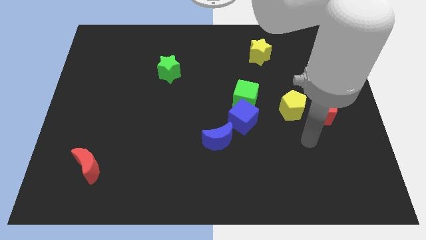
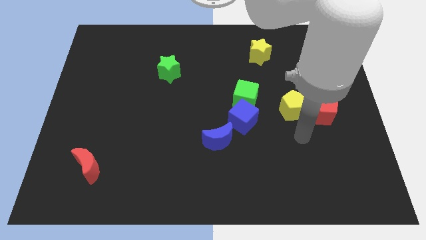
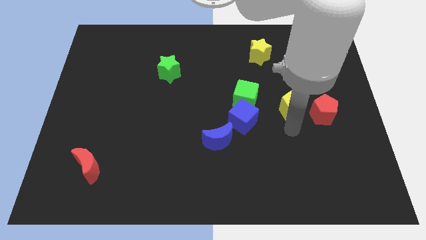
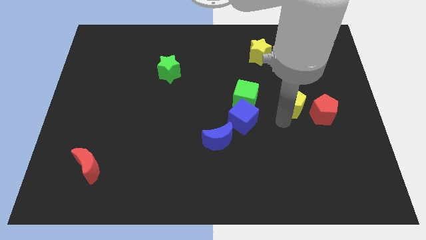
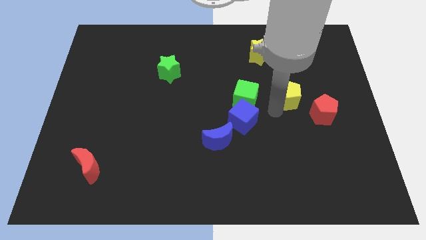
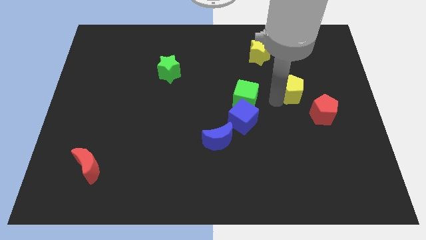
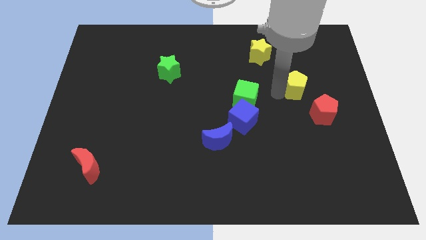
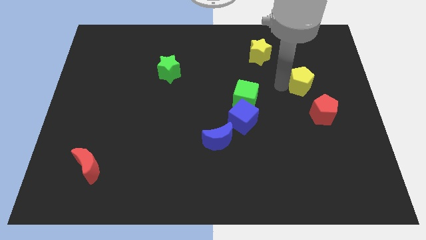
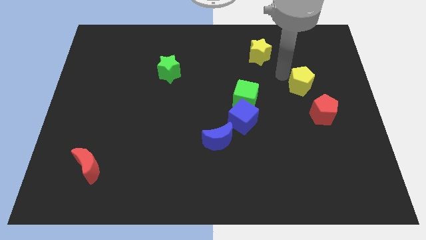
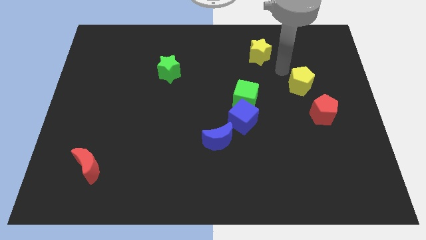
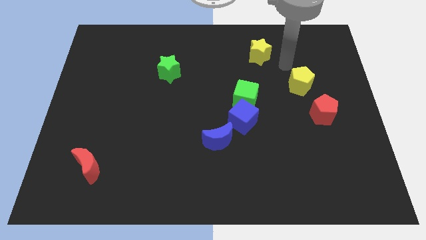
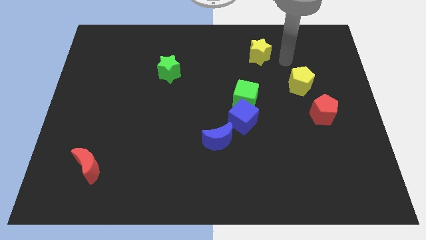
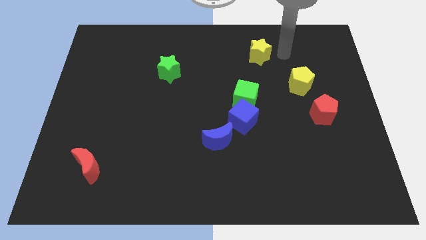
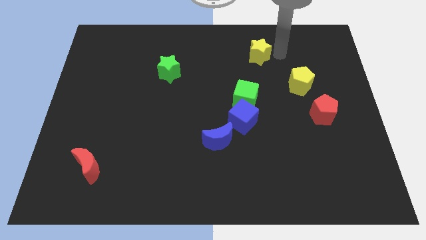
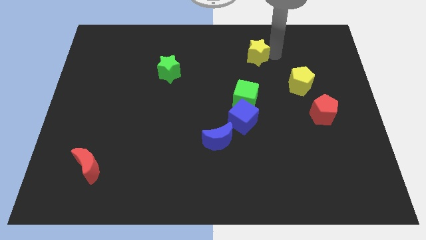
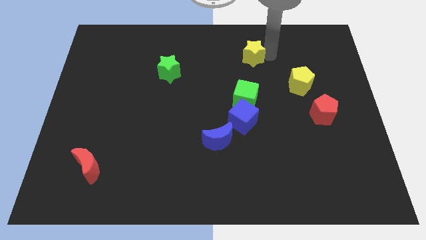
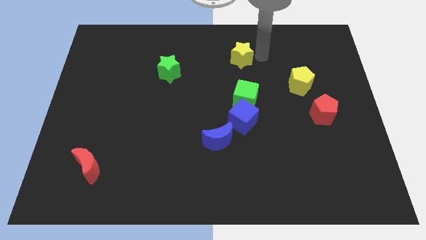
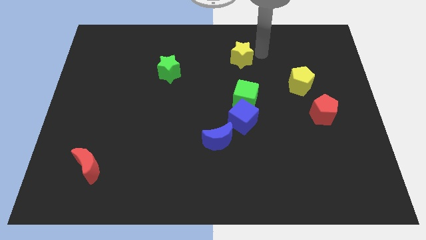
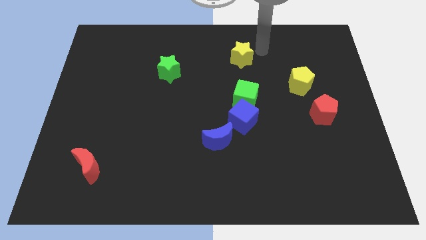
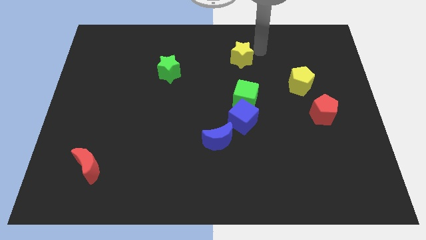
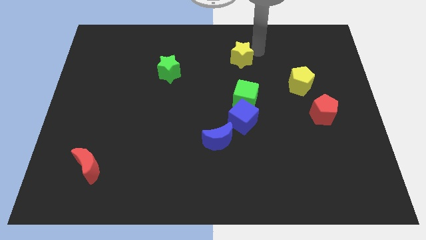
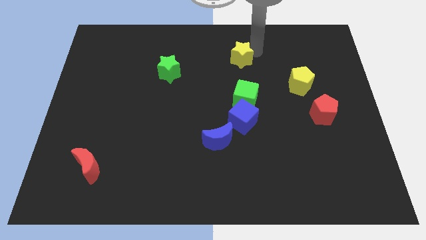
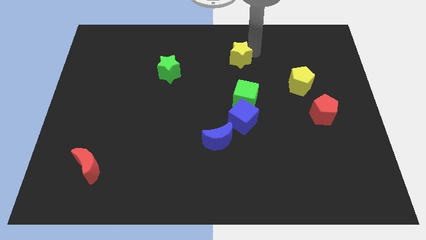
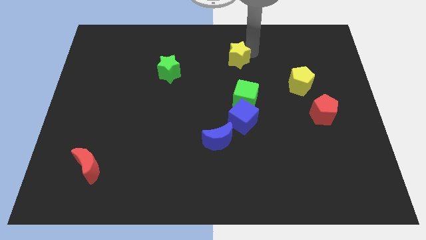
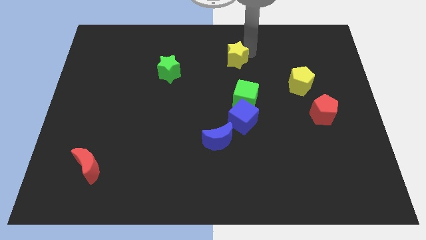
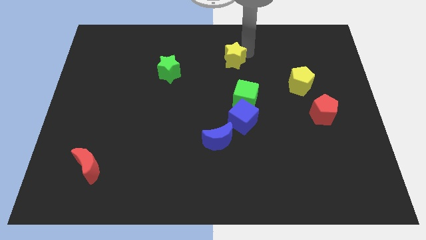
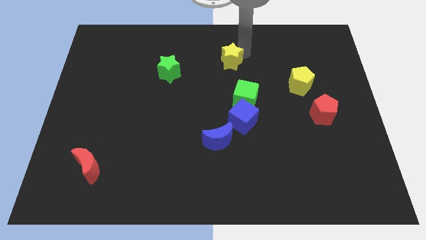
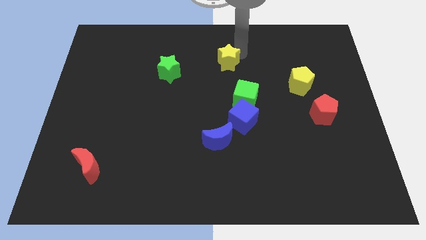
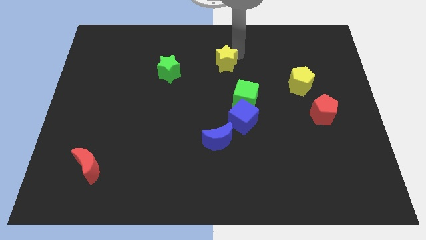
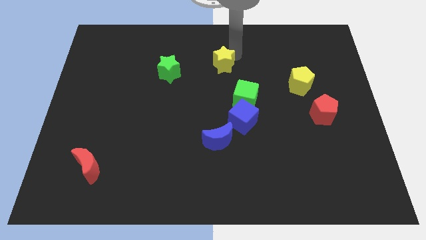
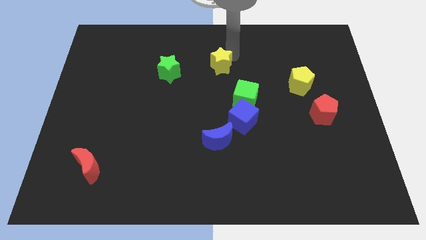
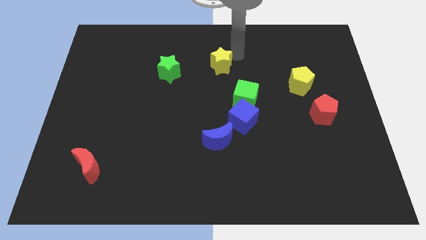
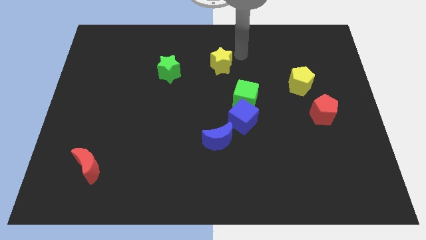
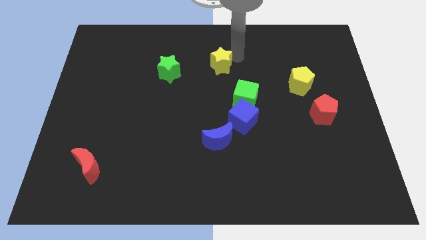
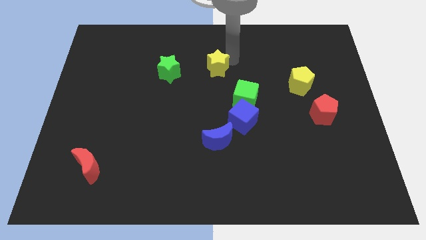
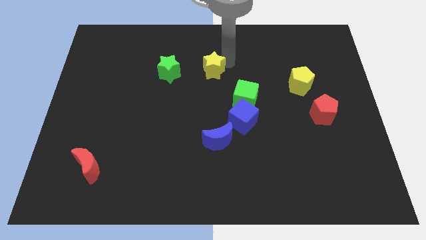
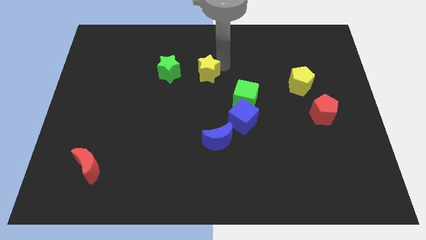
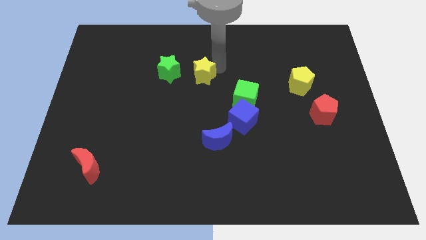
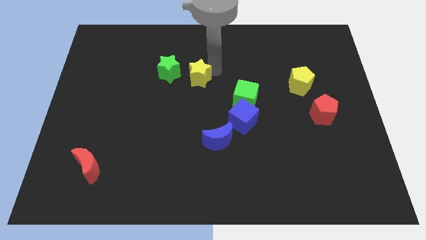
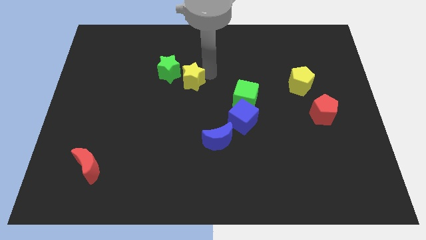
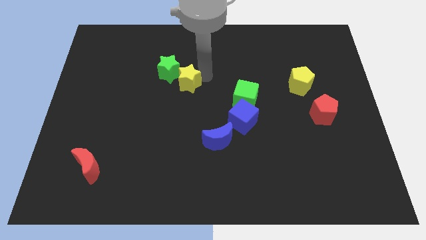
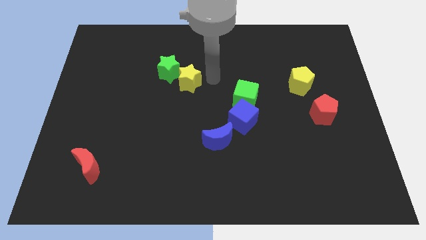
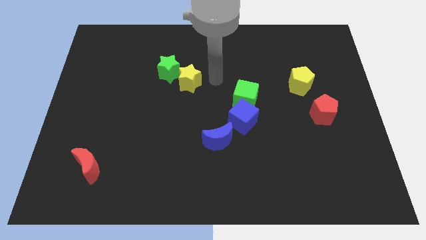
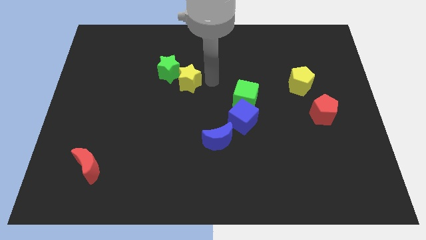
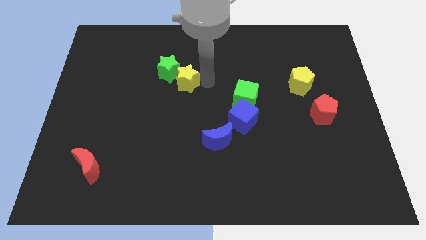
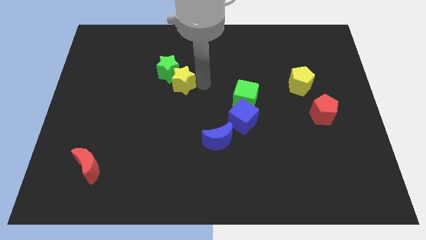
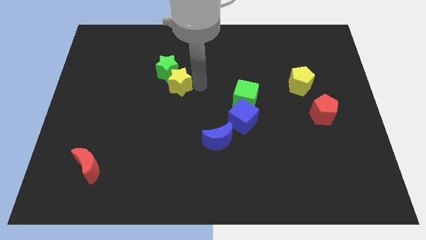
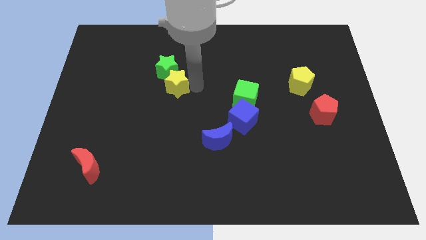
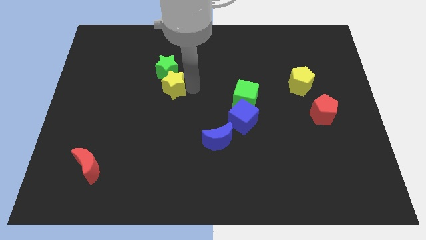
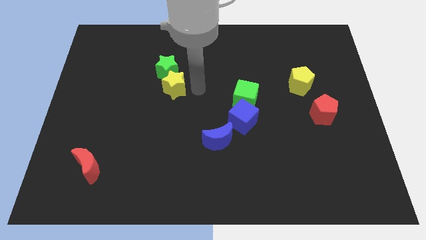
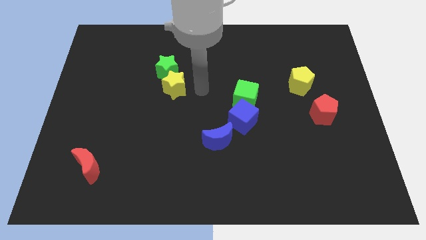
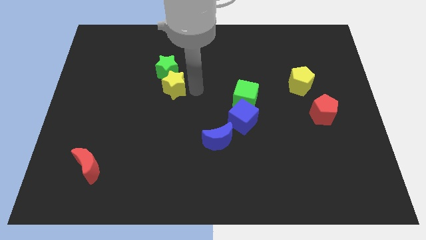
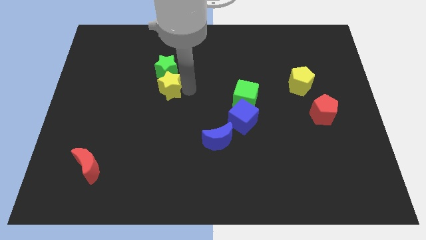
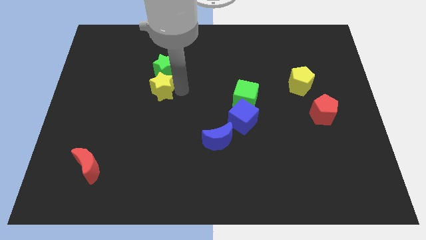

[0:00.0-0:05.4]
move the yellow star diagonally down and to the left of the green star

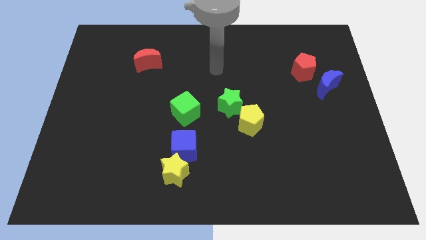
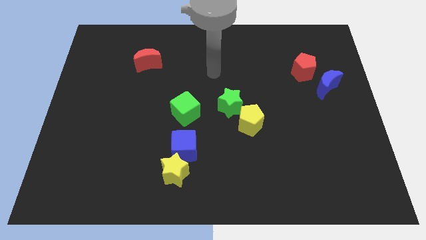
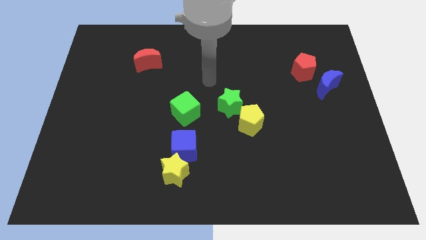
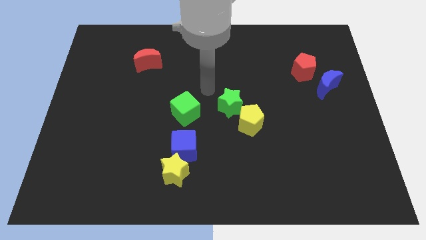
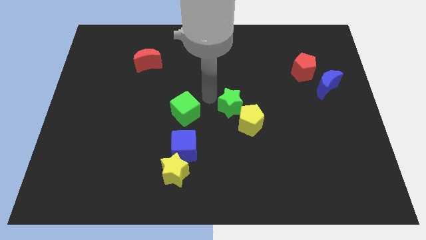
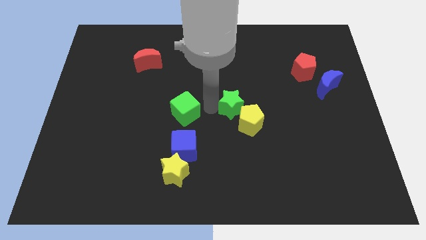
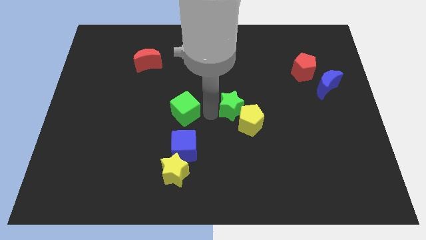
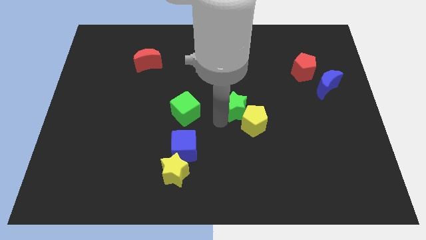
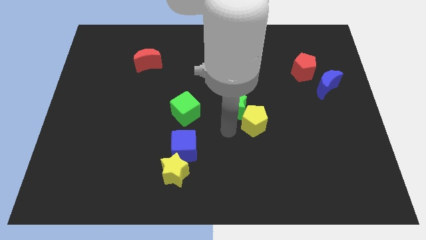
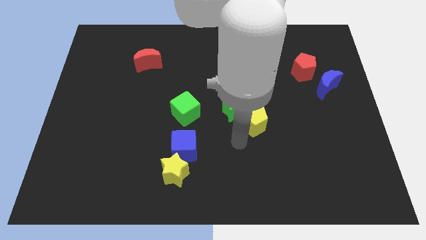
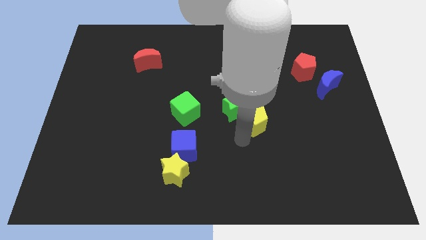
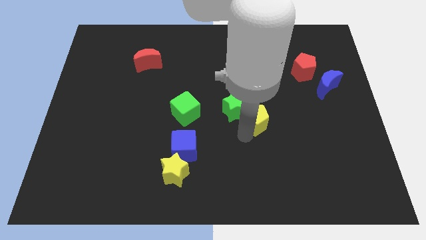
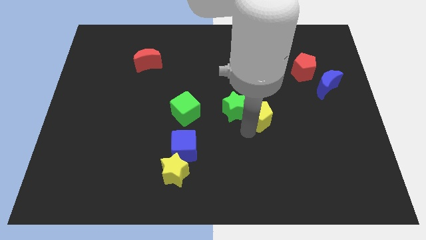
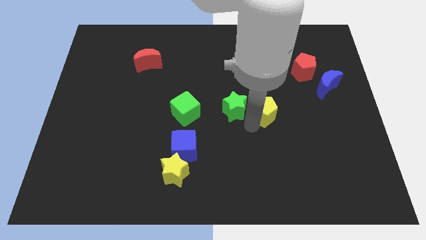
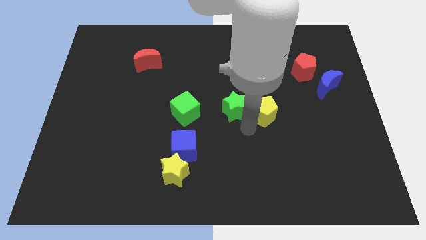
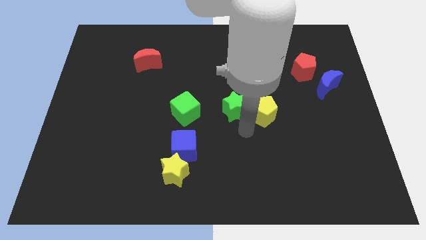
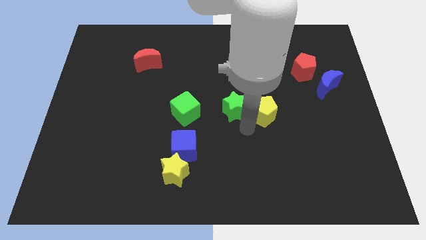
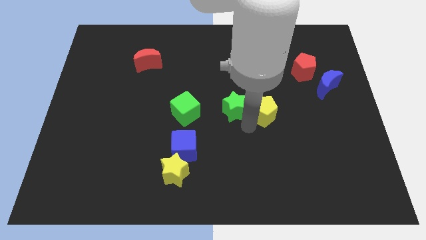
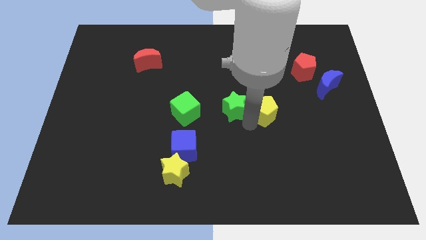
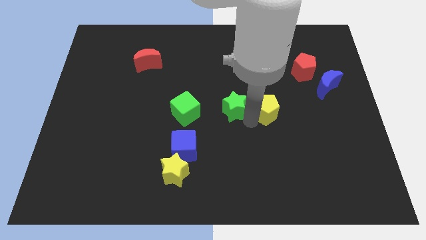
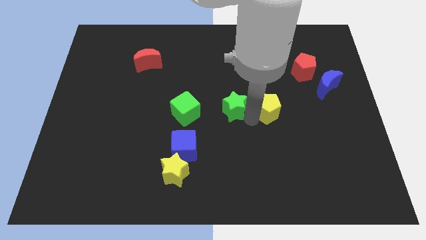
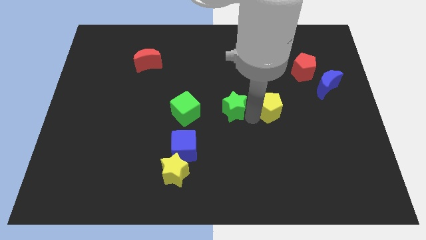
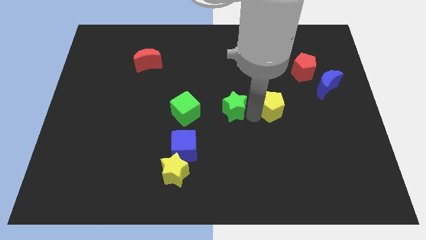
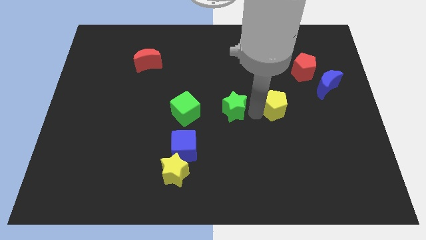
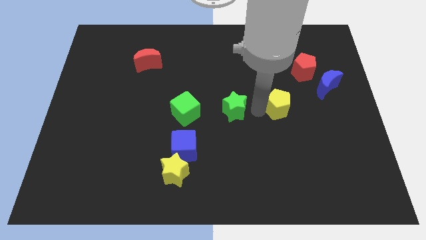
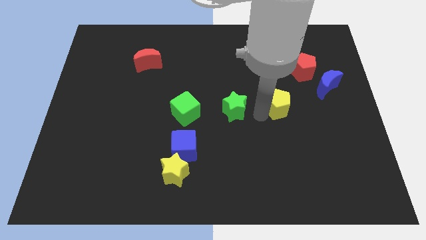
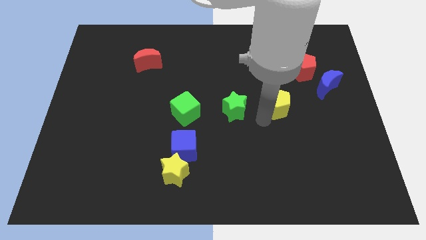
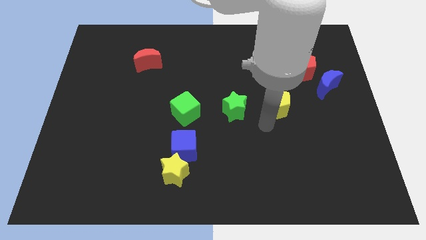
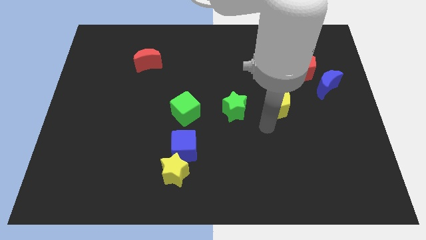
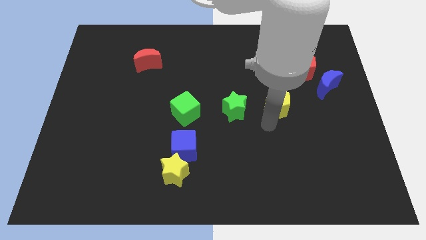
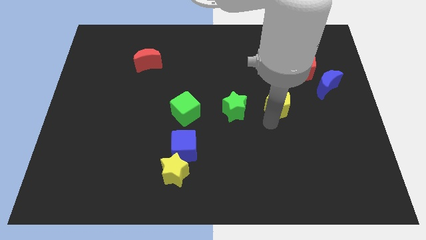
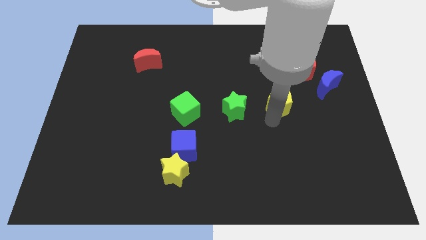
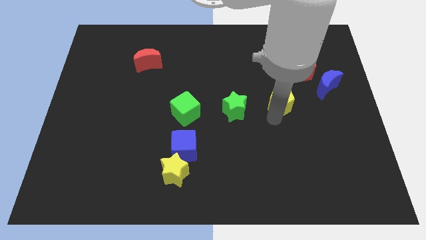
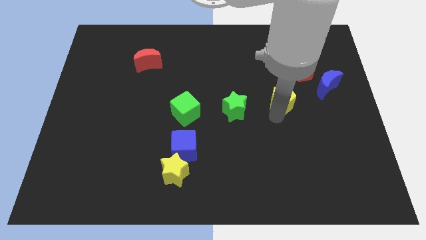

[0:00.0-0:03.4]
move the yellow pentagon to the bottom left side of the red pentagon

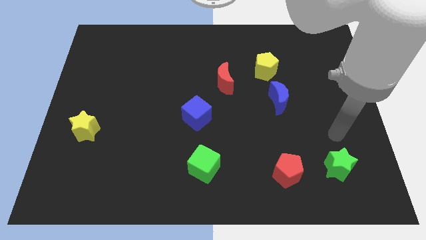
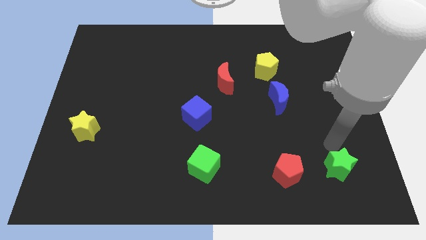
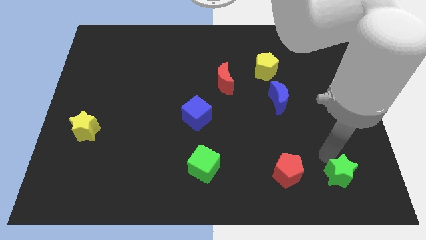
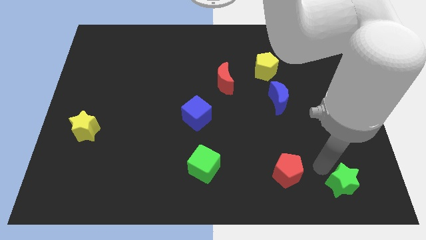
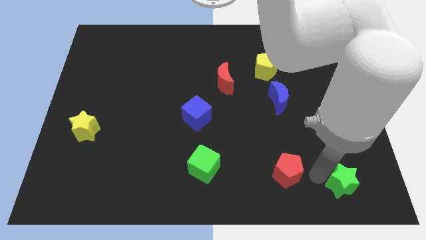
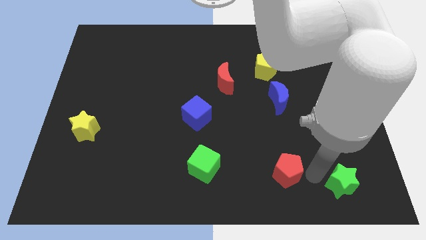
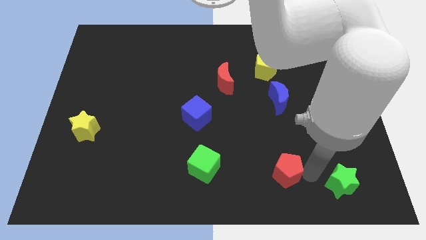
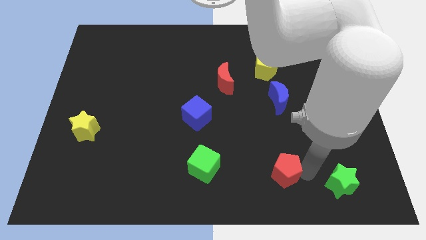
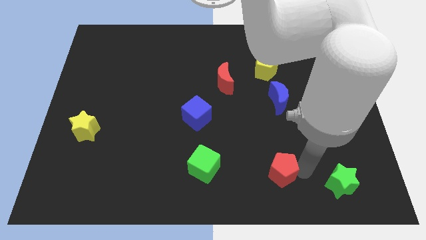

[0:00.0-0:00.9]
put the red pentagon to the right of the green cube
